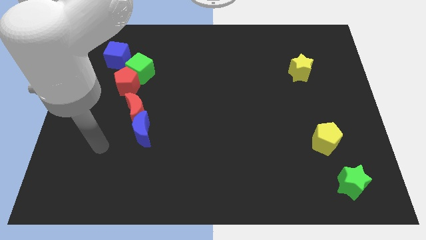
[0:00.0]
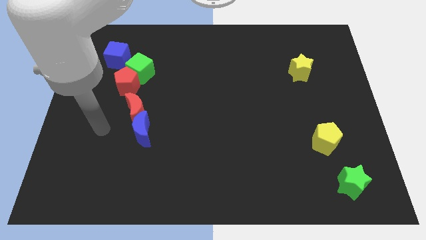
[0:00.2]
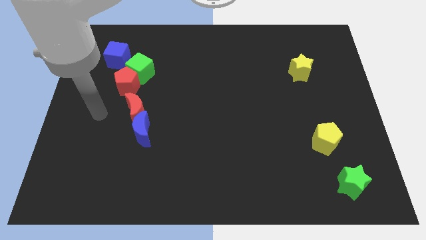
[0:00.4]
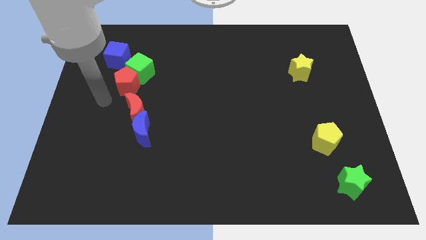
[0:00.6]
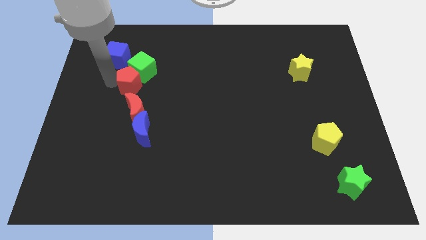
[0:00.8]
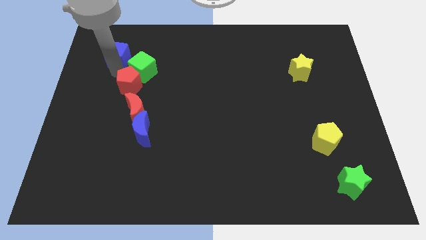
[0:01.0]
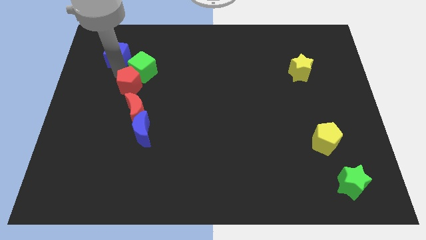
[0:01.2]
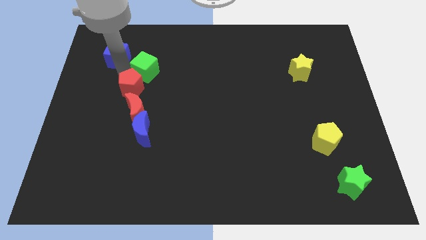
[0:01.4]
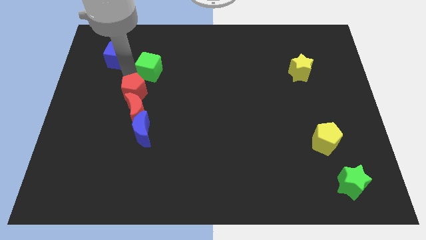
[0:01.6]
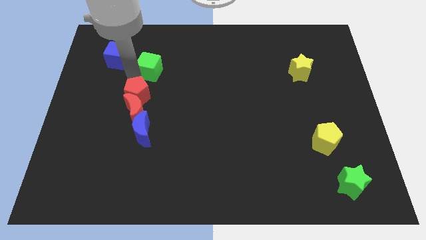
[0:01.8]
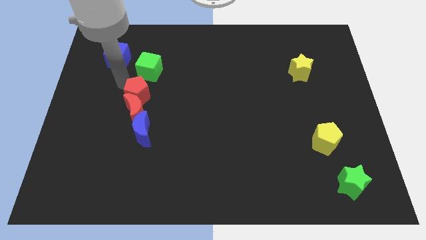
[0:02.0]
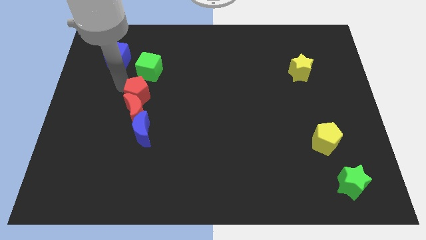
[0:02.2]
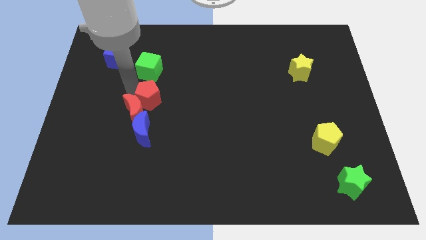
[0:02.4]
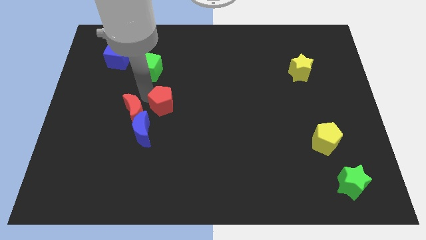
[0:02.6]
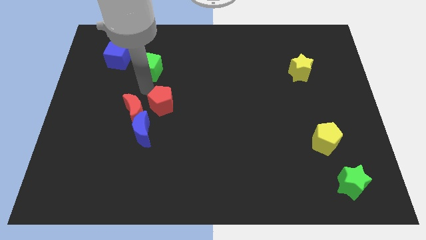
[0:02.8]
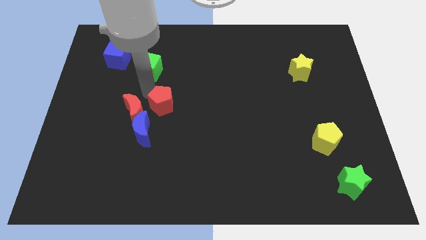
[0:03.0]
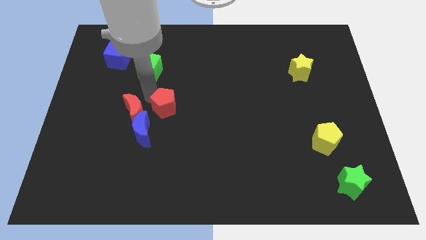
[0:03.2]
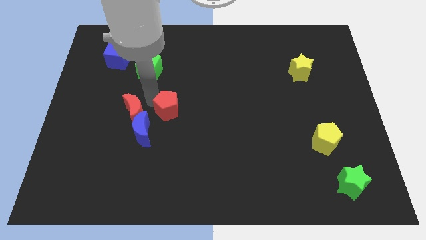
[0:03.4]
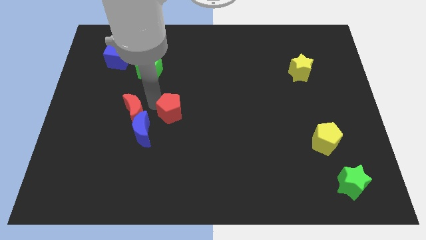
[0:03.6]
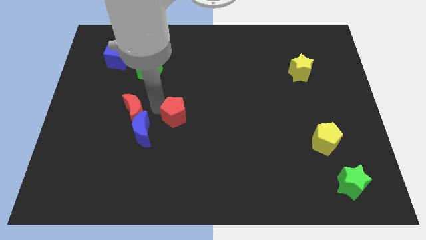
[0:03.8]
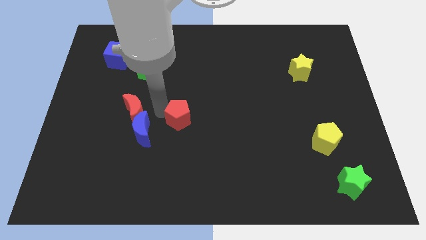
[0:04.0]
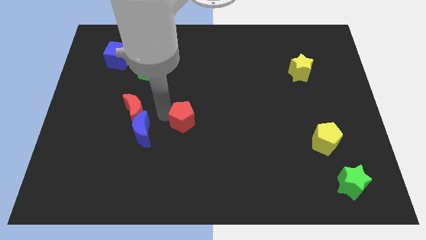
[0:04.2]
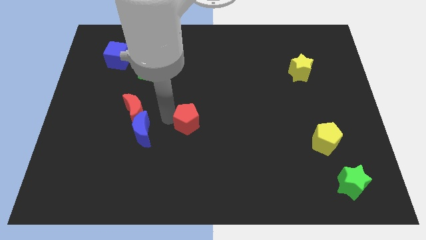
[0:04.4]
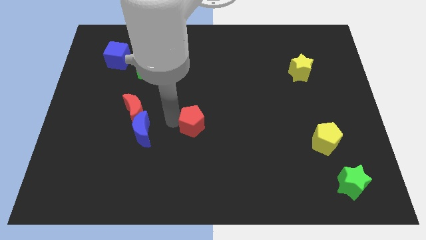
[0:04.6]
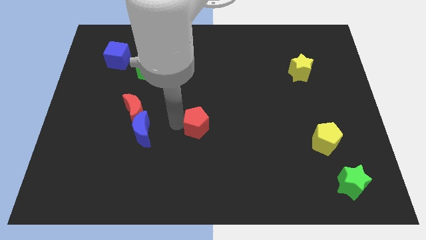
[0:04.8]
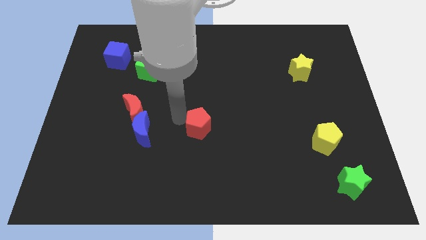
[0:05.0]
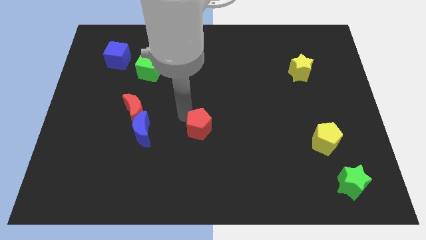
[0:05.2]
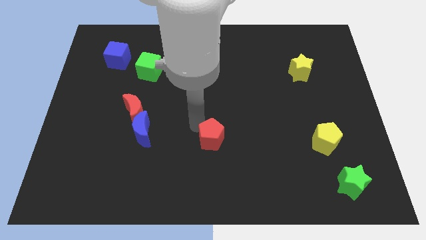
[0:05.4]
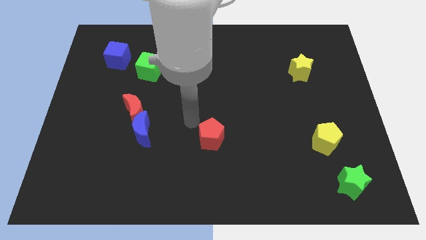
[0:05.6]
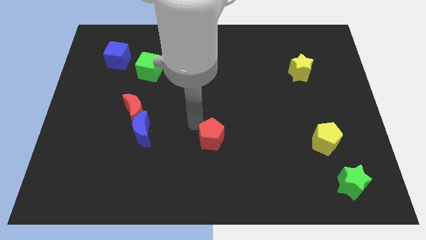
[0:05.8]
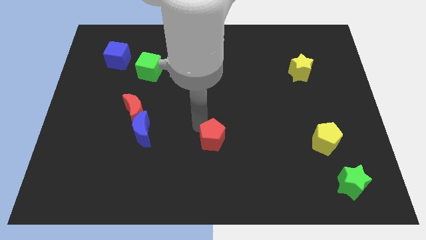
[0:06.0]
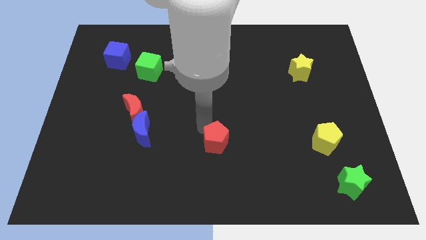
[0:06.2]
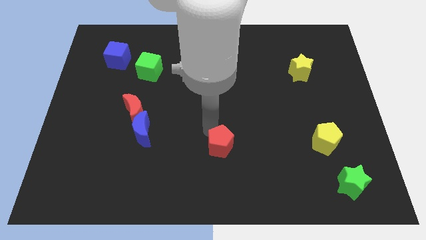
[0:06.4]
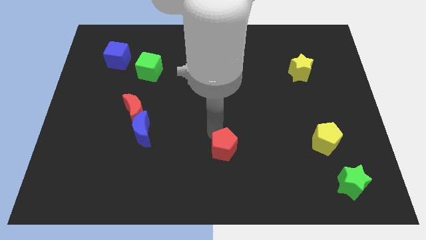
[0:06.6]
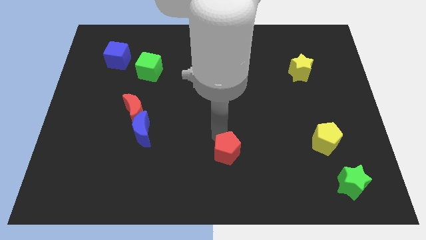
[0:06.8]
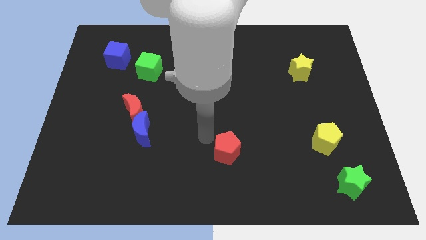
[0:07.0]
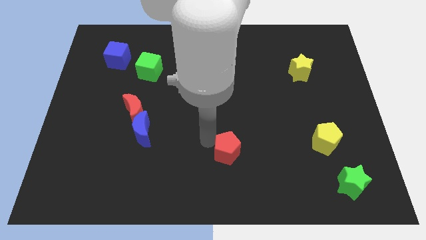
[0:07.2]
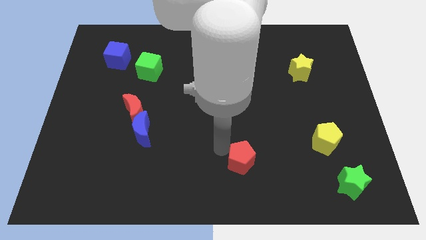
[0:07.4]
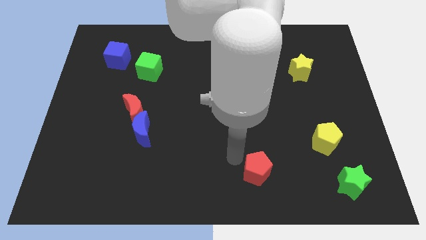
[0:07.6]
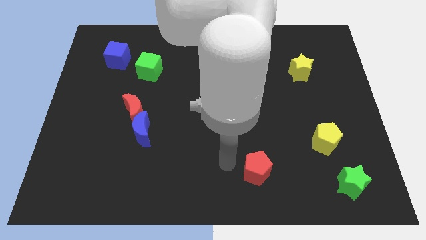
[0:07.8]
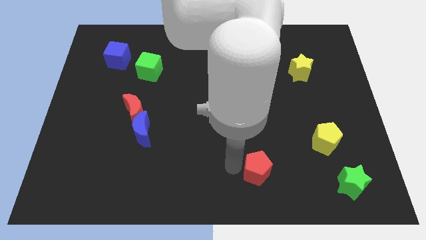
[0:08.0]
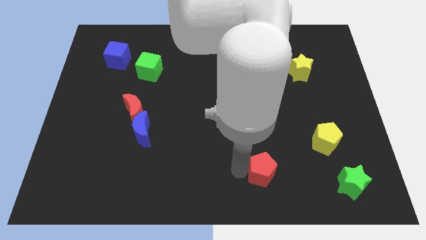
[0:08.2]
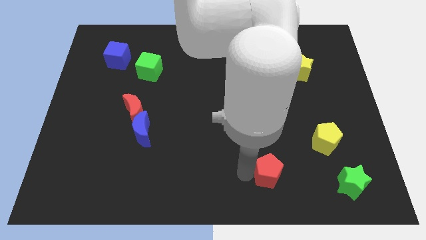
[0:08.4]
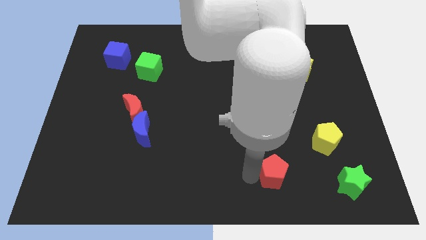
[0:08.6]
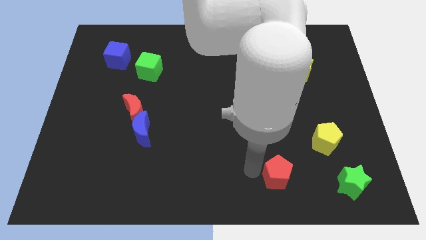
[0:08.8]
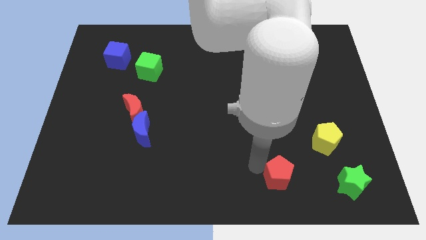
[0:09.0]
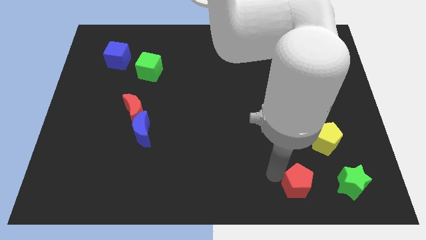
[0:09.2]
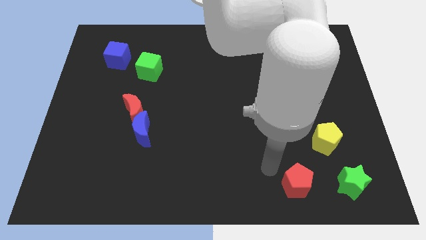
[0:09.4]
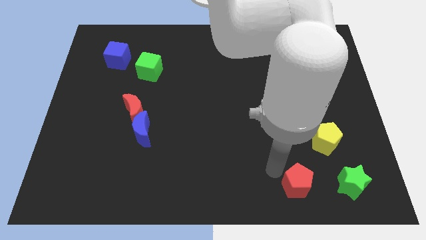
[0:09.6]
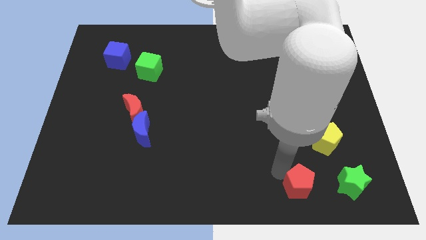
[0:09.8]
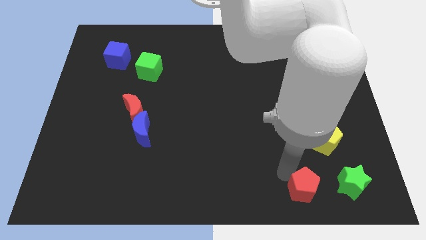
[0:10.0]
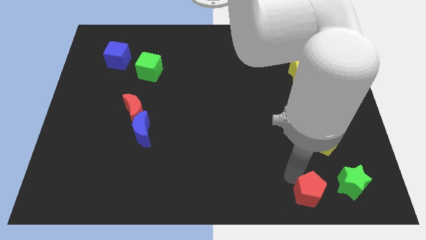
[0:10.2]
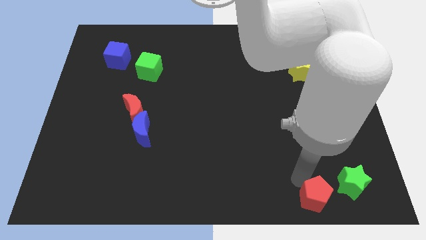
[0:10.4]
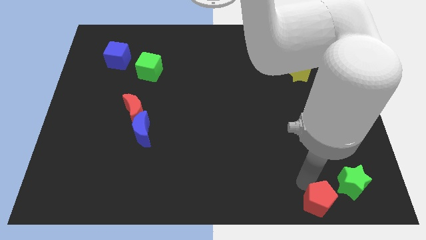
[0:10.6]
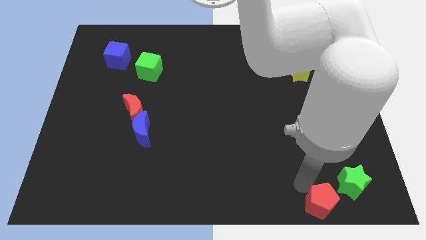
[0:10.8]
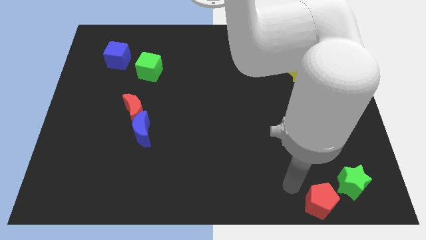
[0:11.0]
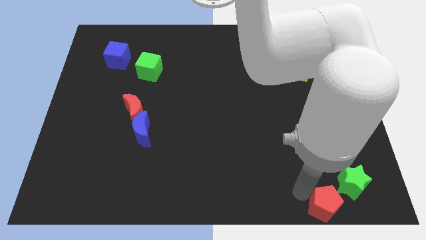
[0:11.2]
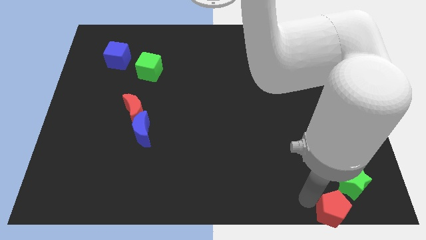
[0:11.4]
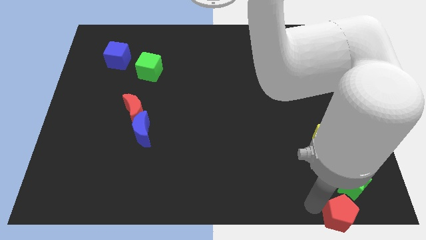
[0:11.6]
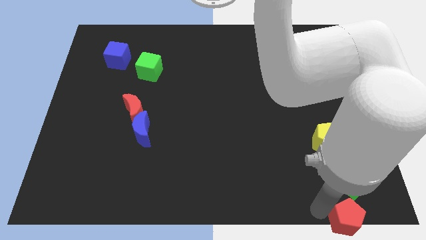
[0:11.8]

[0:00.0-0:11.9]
put the red pentagon to the bottom right
